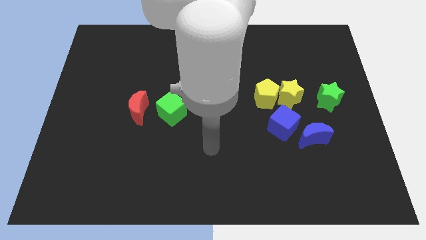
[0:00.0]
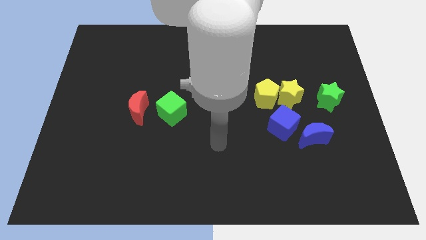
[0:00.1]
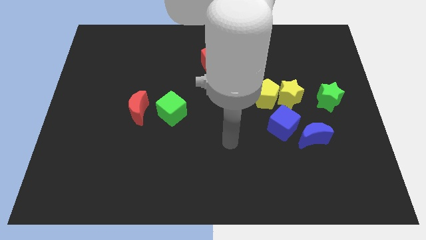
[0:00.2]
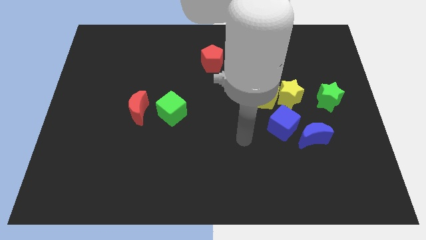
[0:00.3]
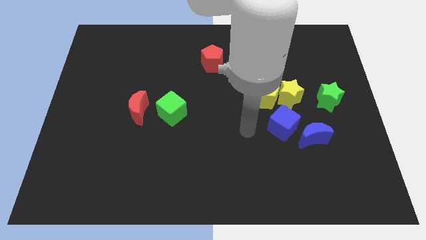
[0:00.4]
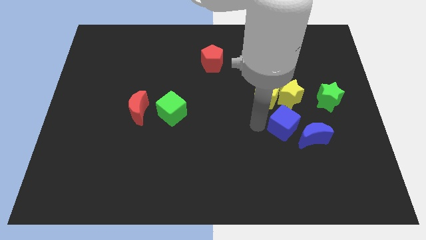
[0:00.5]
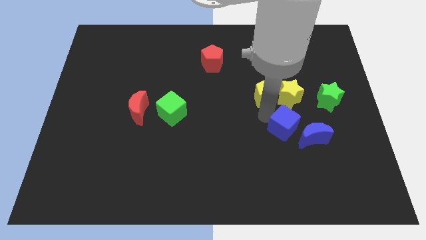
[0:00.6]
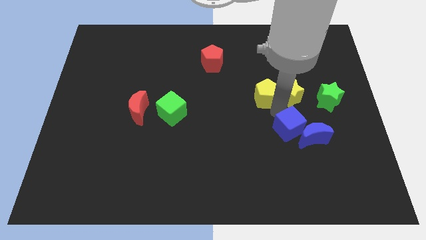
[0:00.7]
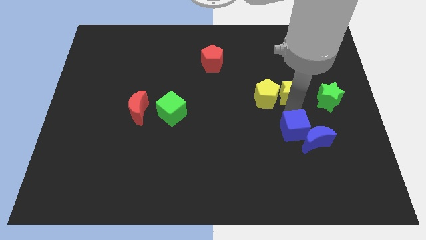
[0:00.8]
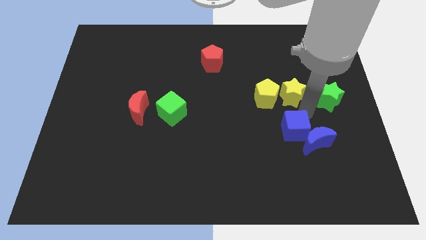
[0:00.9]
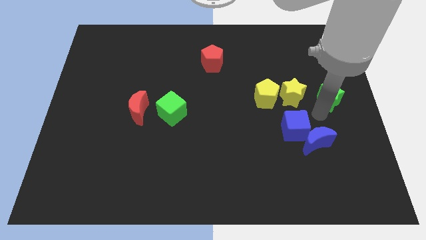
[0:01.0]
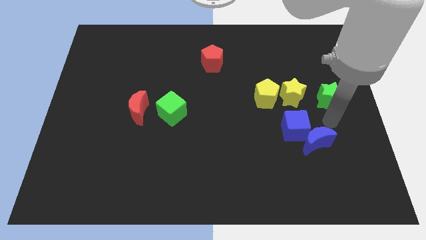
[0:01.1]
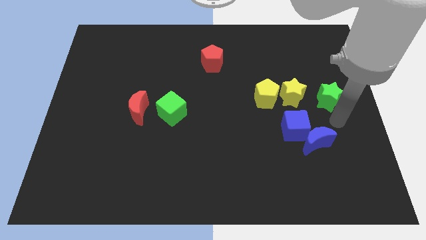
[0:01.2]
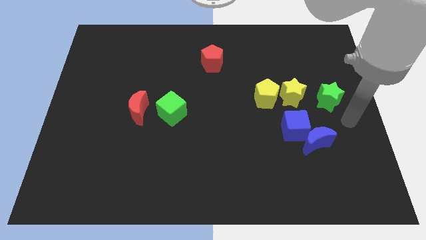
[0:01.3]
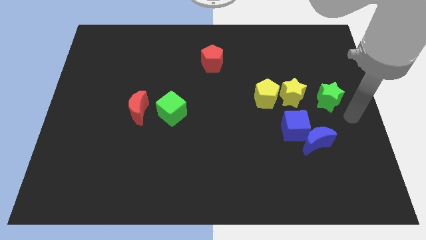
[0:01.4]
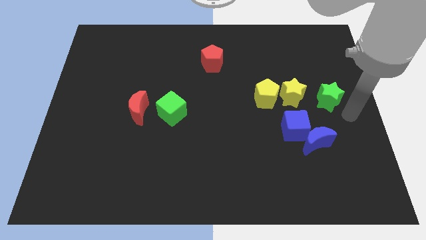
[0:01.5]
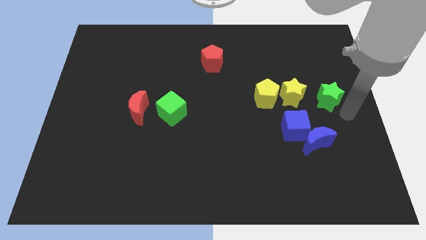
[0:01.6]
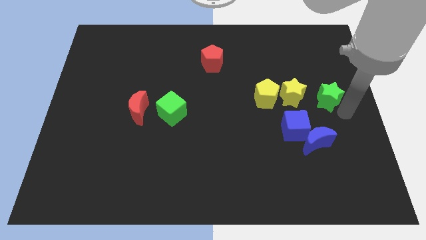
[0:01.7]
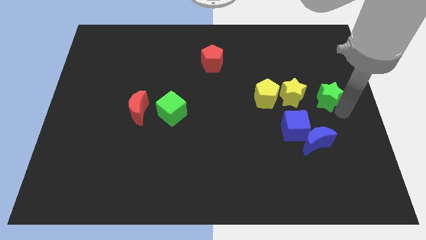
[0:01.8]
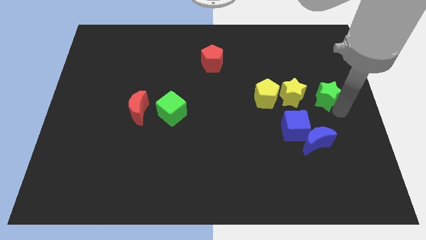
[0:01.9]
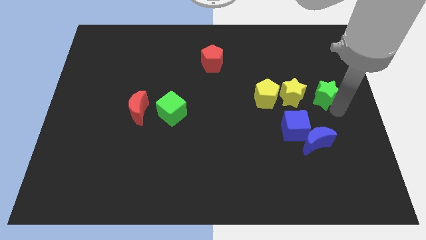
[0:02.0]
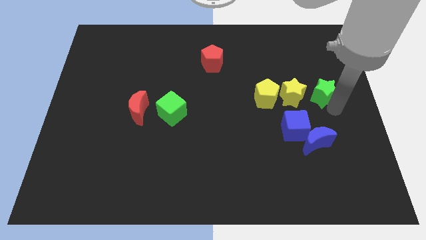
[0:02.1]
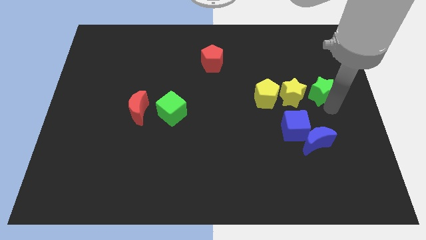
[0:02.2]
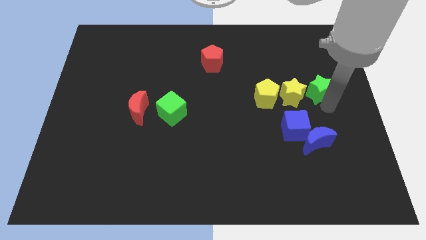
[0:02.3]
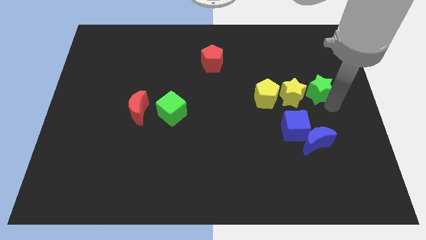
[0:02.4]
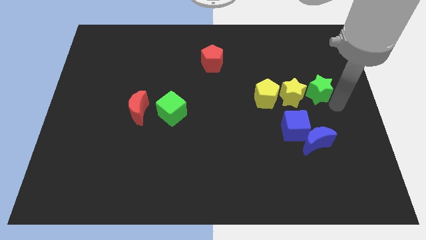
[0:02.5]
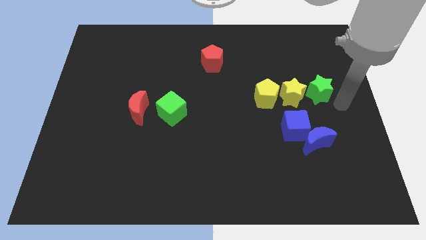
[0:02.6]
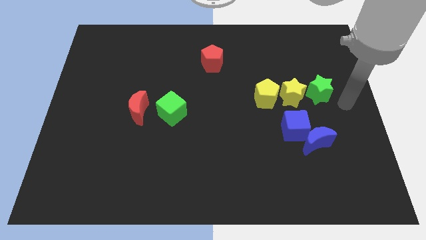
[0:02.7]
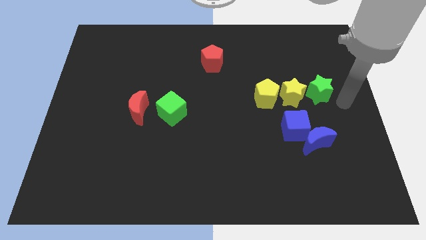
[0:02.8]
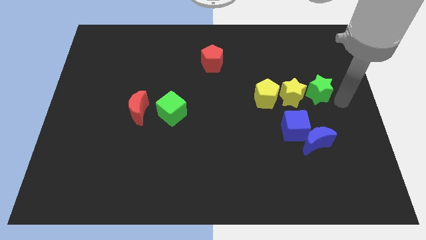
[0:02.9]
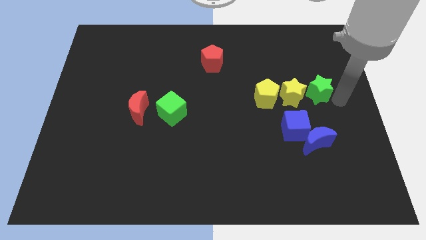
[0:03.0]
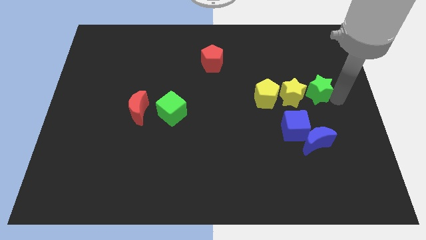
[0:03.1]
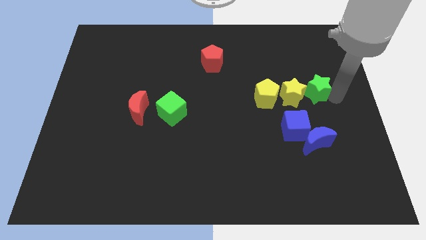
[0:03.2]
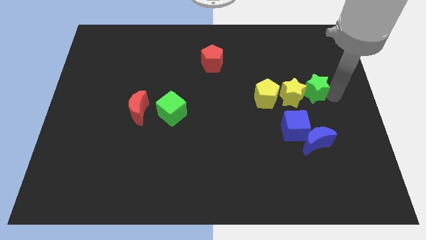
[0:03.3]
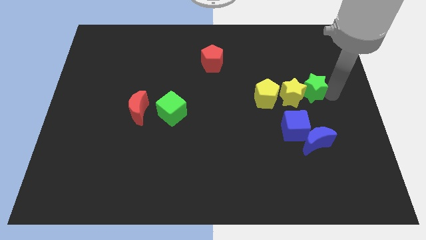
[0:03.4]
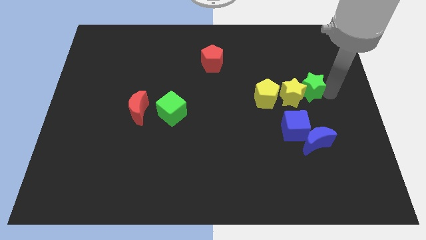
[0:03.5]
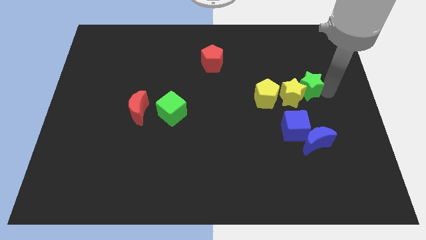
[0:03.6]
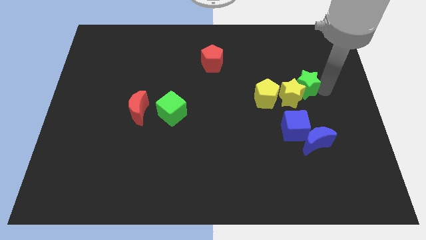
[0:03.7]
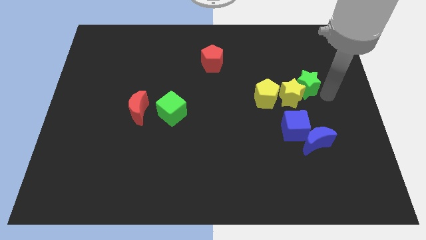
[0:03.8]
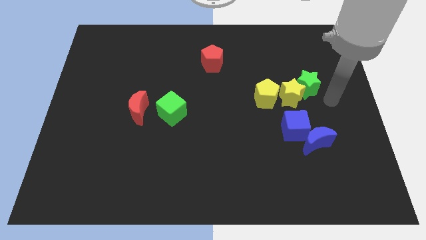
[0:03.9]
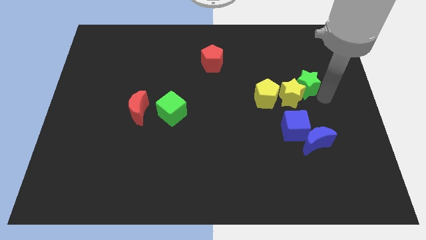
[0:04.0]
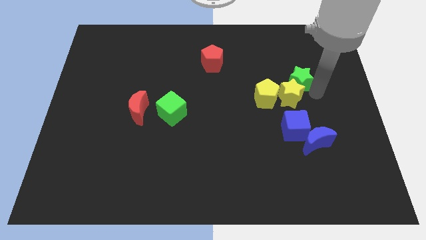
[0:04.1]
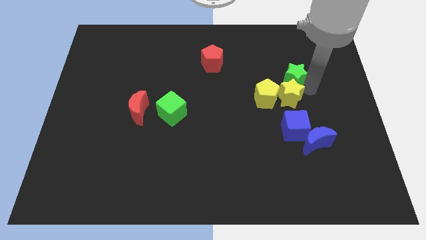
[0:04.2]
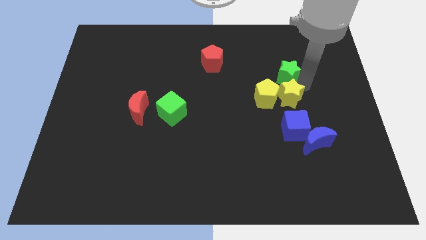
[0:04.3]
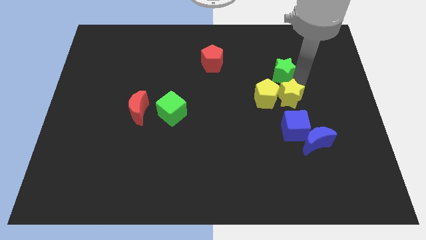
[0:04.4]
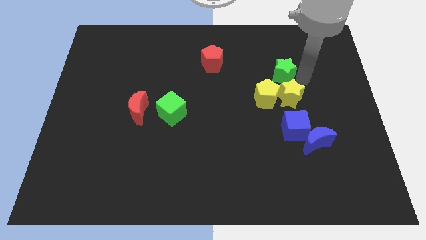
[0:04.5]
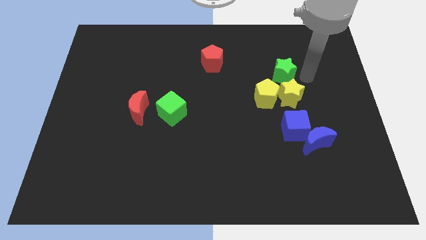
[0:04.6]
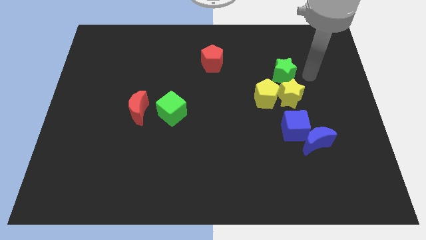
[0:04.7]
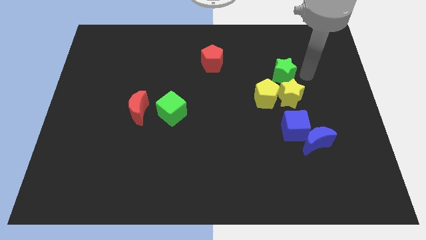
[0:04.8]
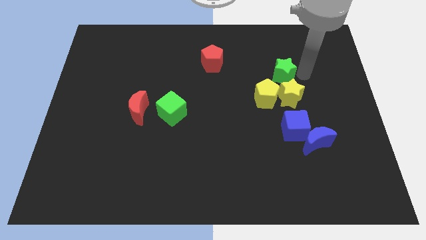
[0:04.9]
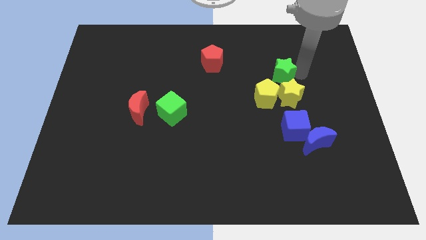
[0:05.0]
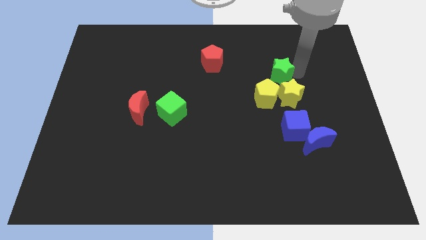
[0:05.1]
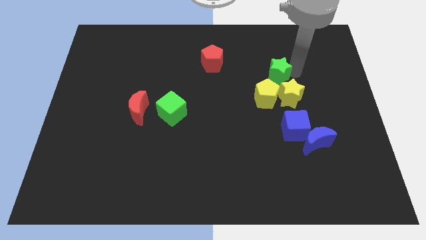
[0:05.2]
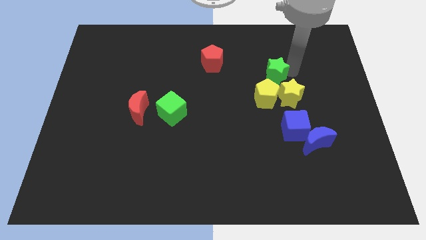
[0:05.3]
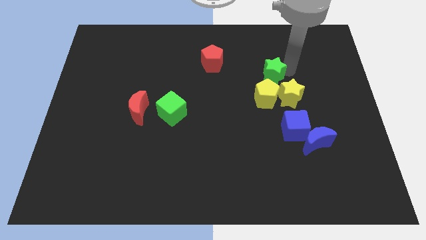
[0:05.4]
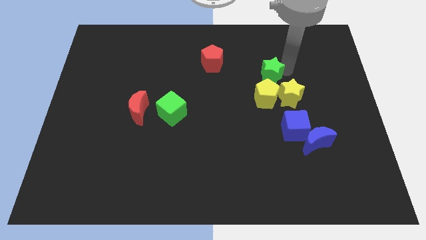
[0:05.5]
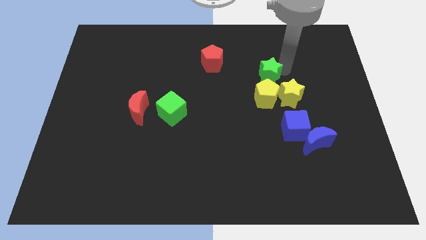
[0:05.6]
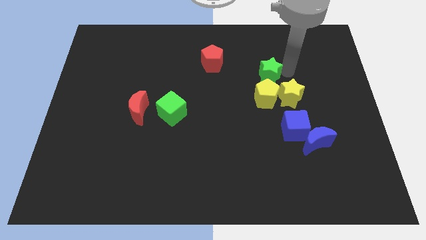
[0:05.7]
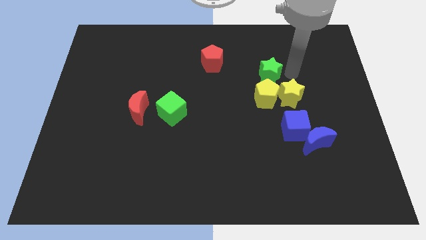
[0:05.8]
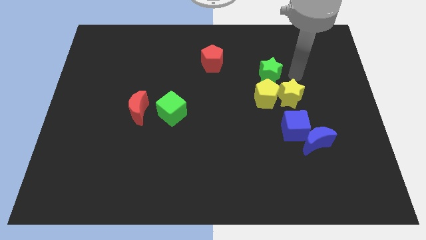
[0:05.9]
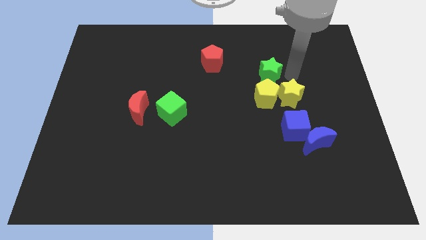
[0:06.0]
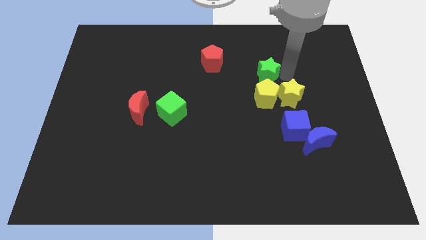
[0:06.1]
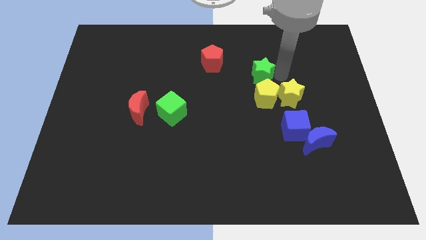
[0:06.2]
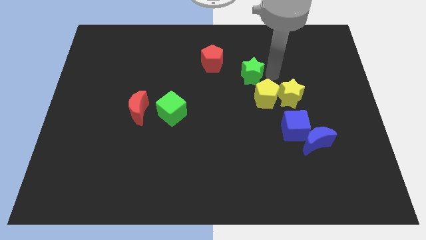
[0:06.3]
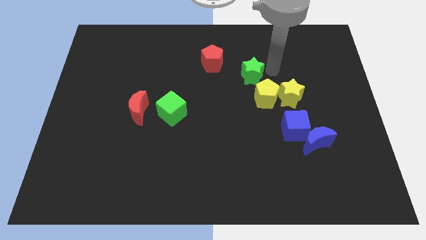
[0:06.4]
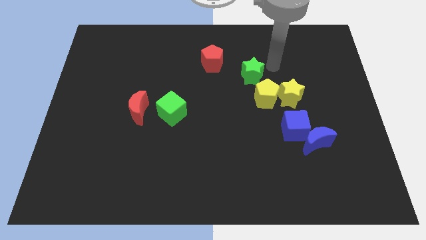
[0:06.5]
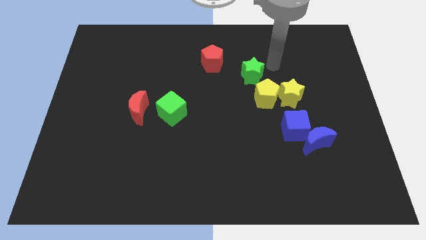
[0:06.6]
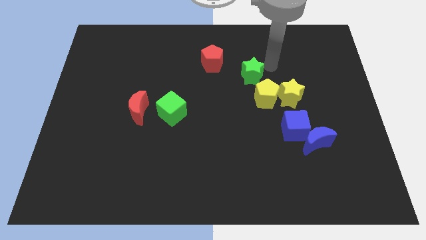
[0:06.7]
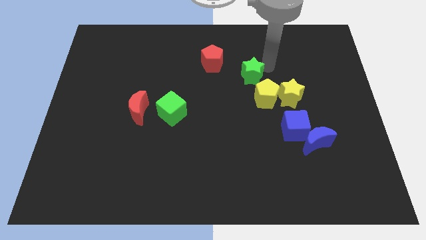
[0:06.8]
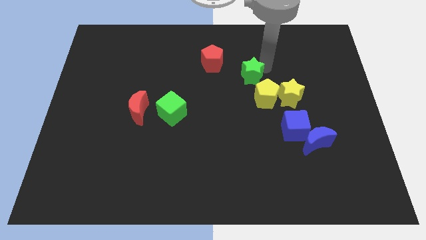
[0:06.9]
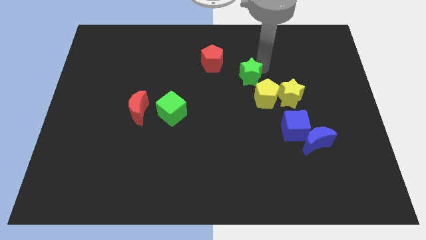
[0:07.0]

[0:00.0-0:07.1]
slide the green star to the center
